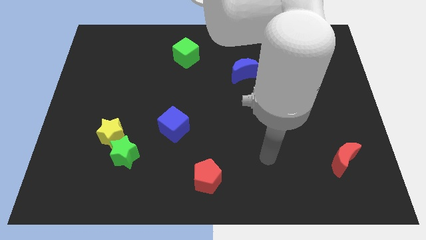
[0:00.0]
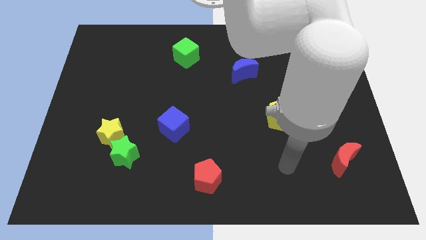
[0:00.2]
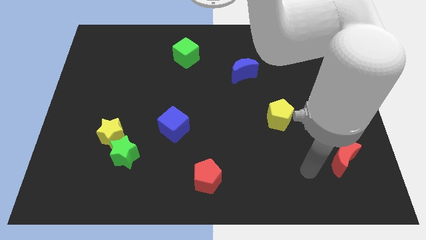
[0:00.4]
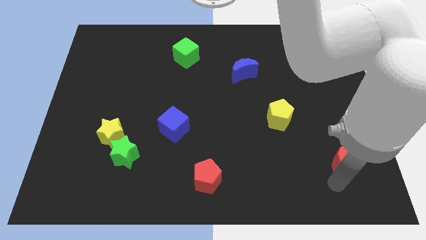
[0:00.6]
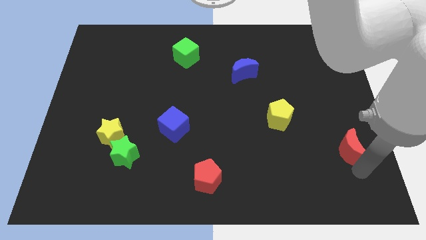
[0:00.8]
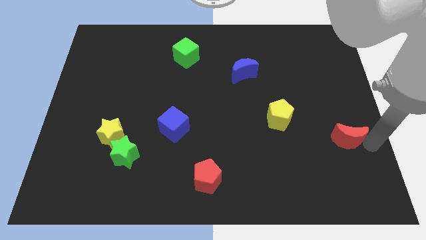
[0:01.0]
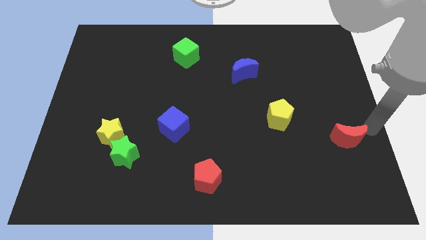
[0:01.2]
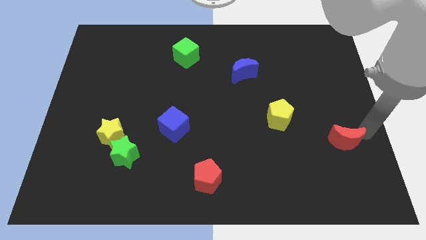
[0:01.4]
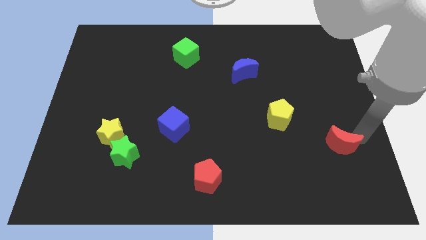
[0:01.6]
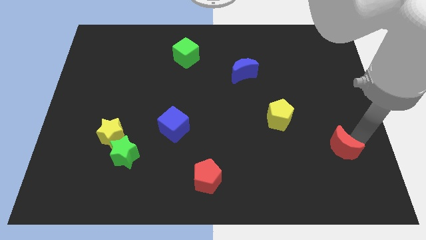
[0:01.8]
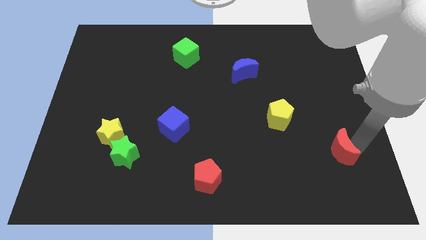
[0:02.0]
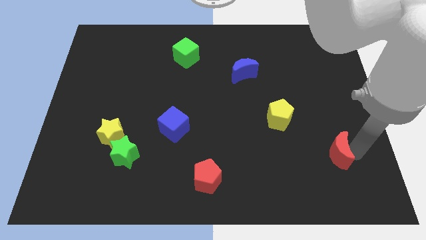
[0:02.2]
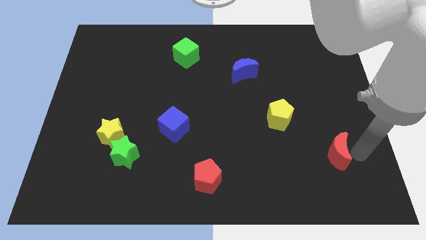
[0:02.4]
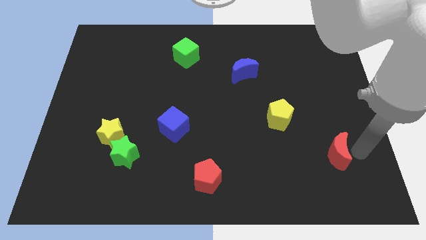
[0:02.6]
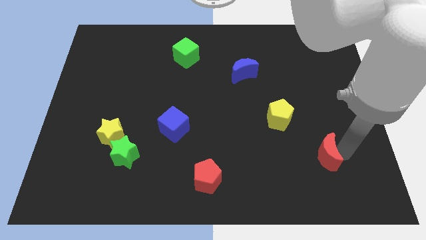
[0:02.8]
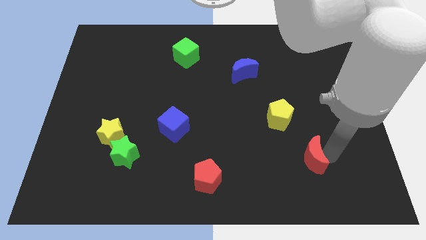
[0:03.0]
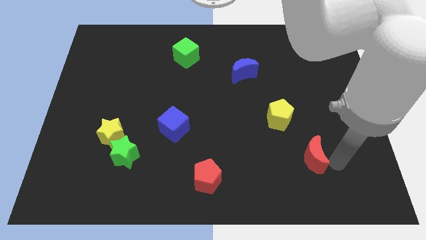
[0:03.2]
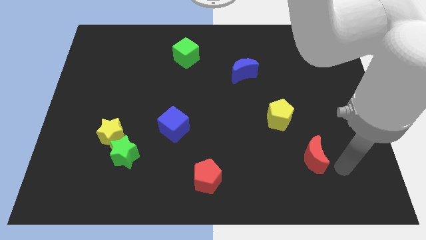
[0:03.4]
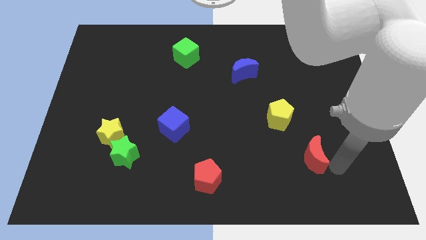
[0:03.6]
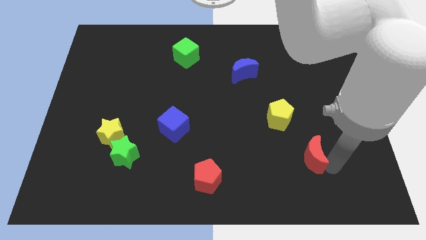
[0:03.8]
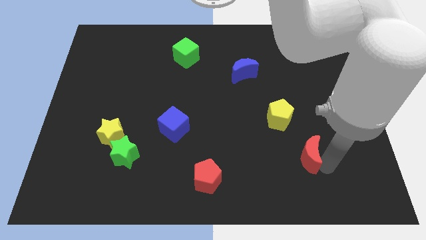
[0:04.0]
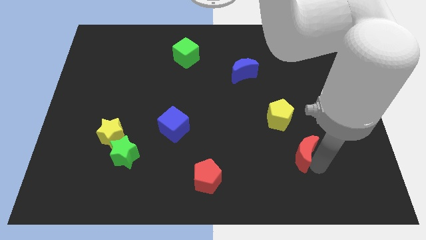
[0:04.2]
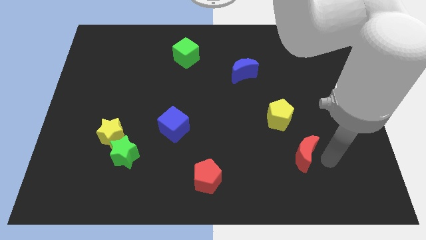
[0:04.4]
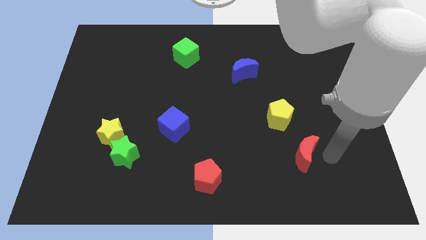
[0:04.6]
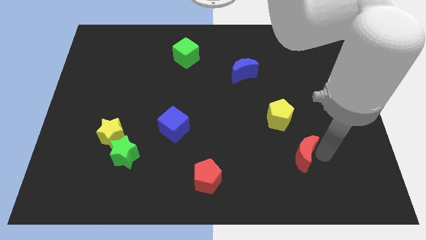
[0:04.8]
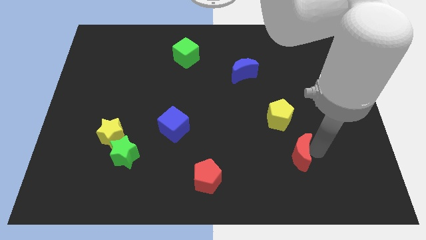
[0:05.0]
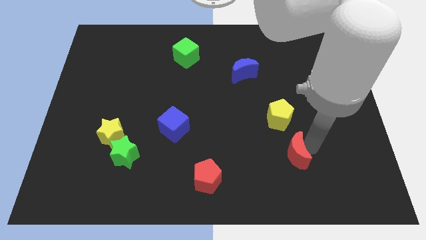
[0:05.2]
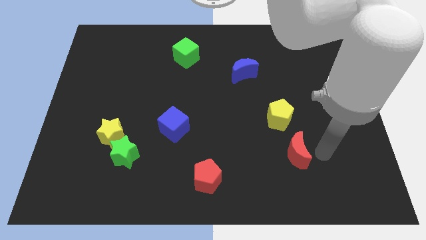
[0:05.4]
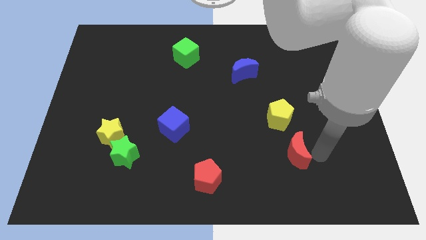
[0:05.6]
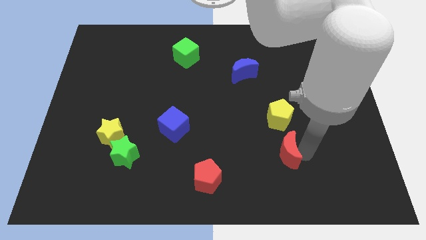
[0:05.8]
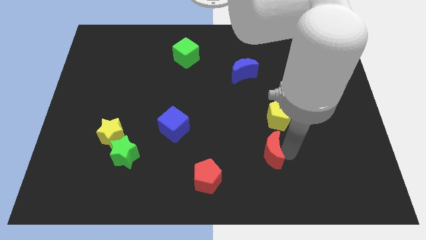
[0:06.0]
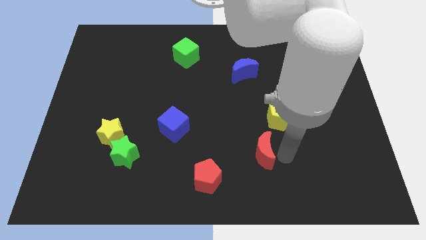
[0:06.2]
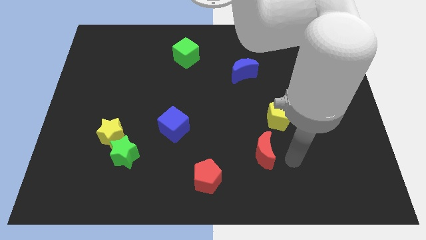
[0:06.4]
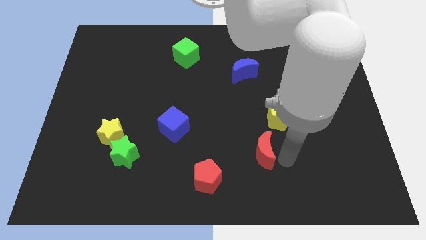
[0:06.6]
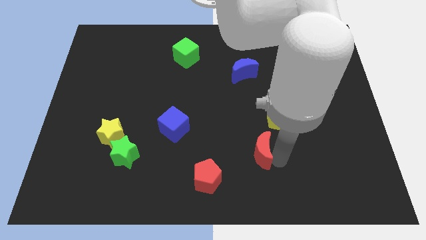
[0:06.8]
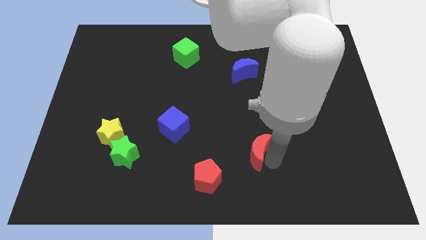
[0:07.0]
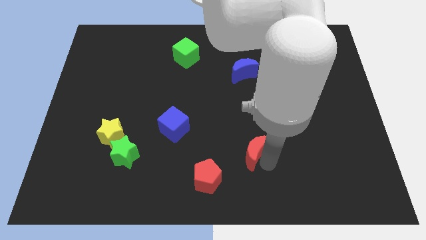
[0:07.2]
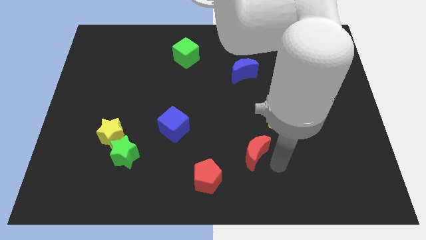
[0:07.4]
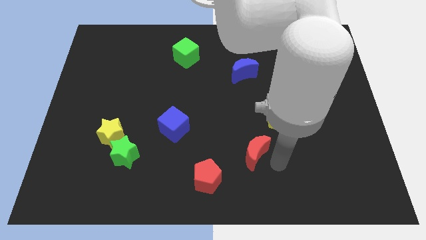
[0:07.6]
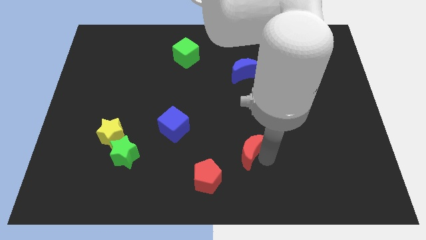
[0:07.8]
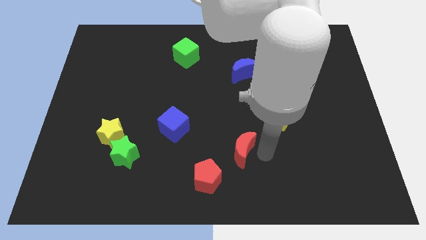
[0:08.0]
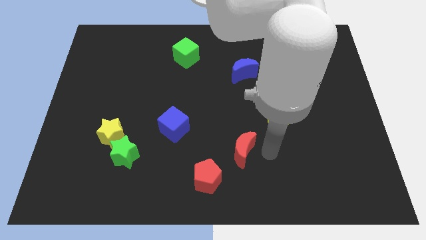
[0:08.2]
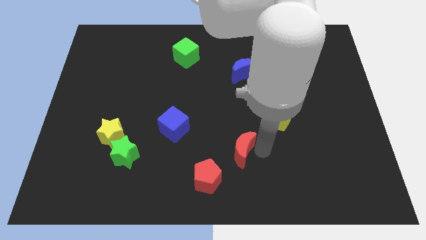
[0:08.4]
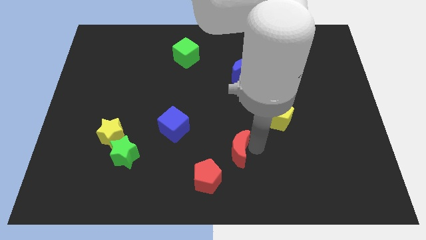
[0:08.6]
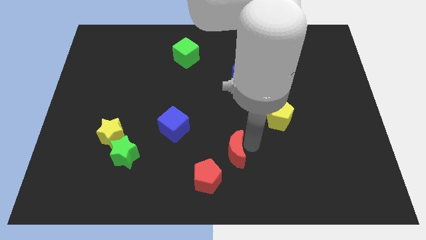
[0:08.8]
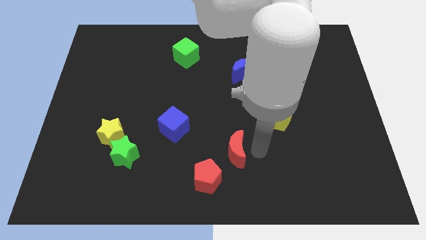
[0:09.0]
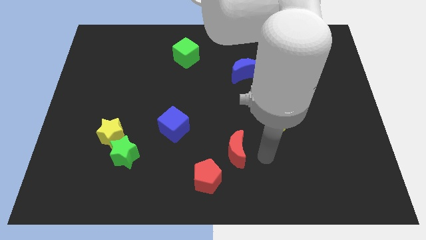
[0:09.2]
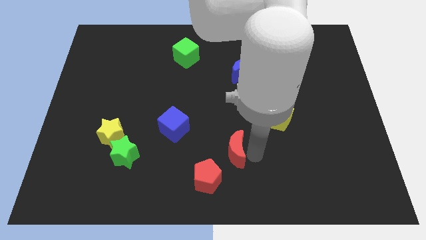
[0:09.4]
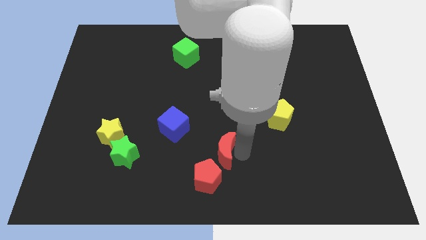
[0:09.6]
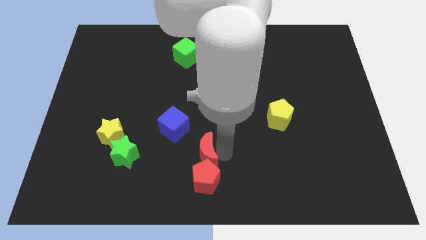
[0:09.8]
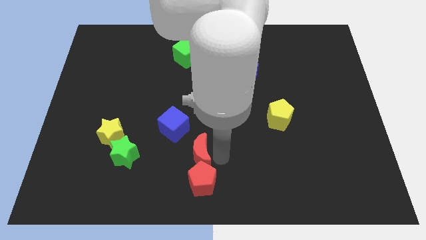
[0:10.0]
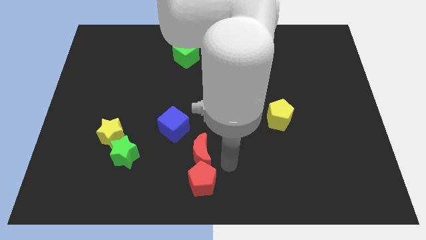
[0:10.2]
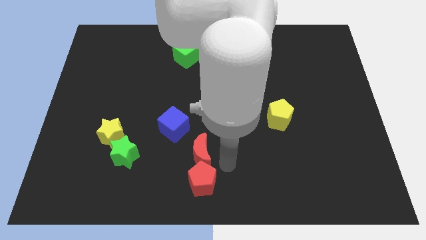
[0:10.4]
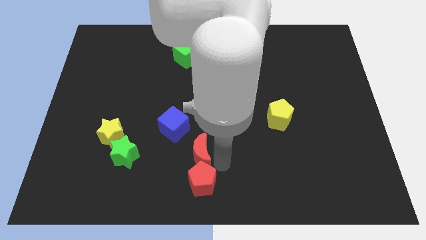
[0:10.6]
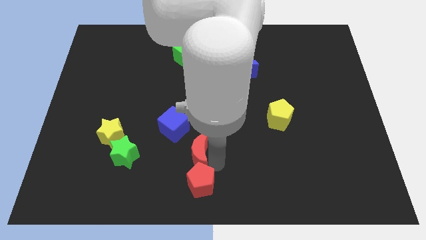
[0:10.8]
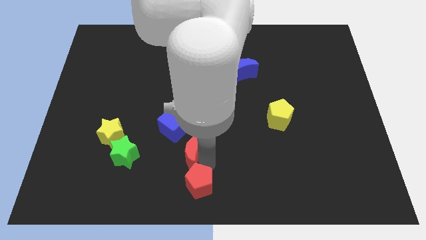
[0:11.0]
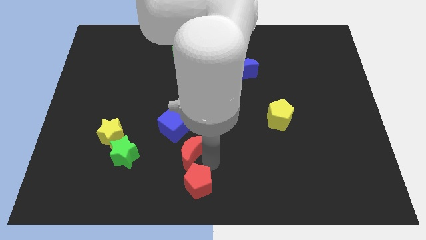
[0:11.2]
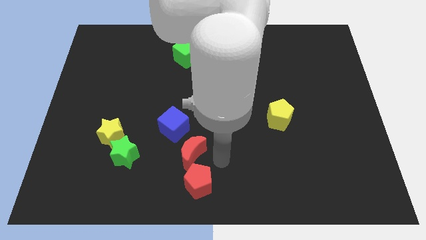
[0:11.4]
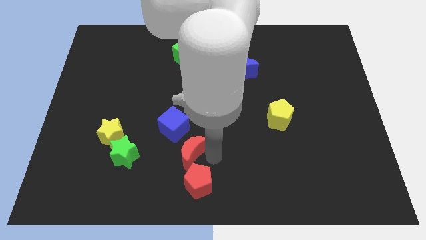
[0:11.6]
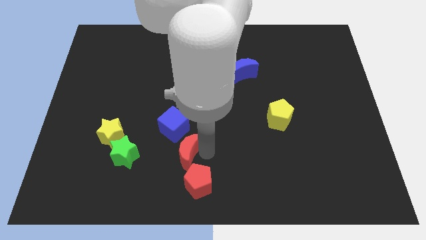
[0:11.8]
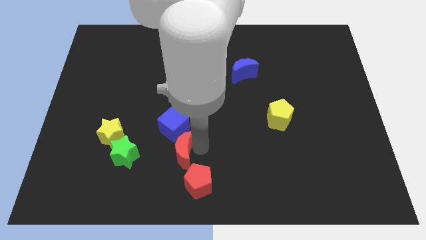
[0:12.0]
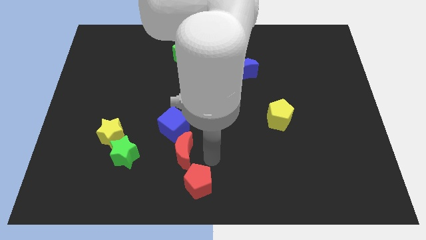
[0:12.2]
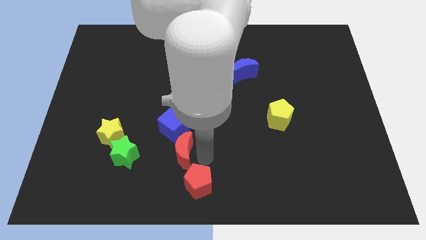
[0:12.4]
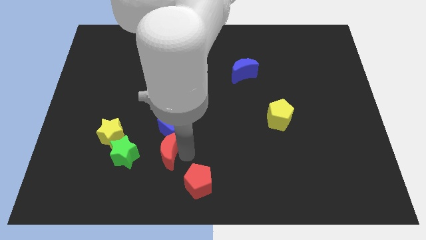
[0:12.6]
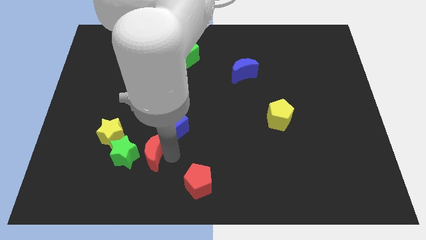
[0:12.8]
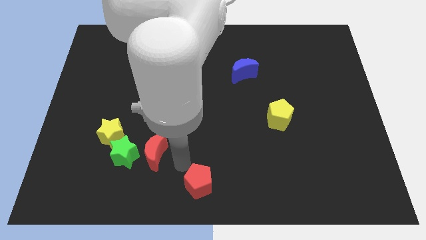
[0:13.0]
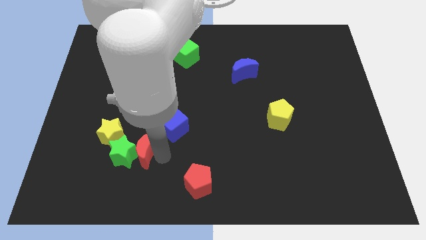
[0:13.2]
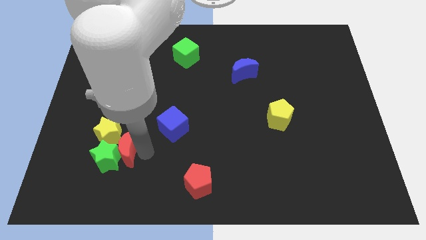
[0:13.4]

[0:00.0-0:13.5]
move the red moon close to the yellow star
